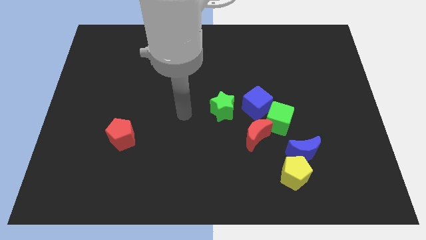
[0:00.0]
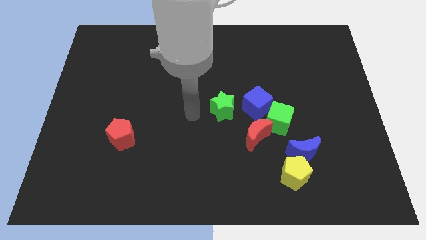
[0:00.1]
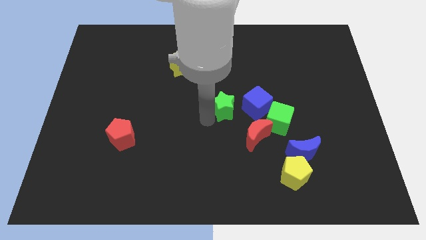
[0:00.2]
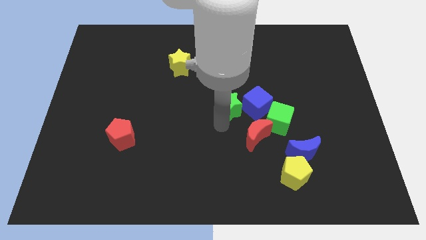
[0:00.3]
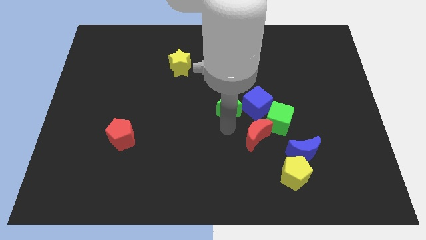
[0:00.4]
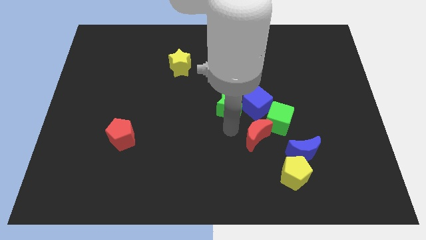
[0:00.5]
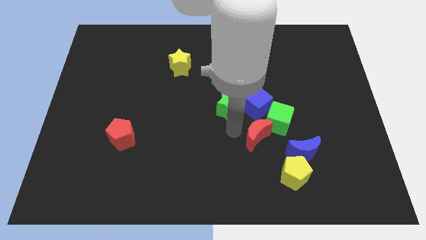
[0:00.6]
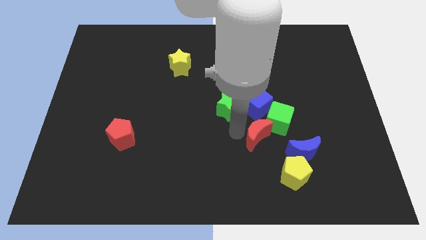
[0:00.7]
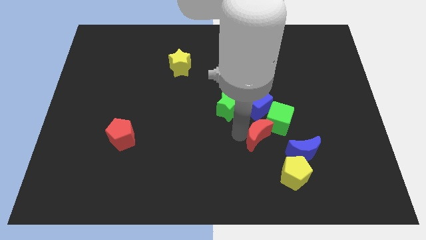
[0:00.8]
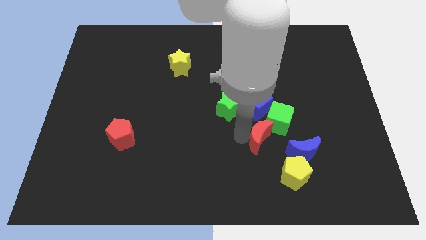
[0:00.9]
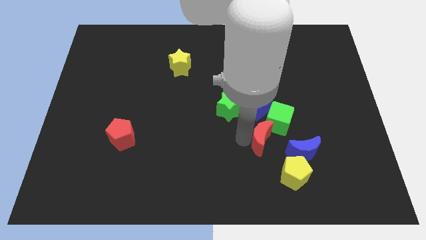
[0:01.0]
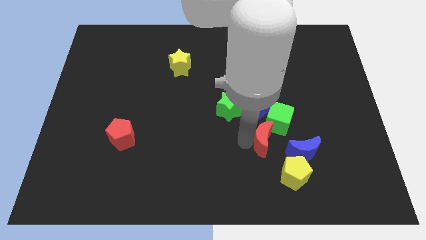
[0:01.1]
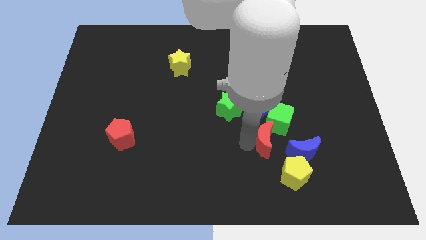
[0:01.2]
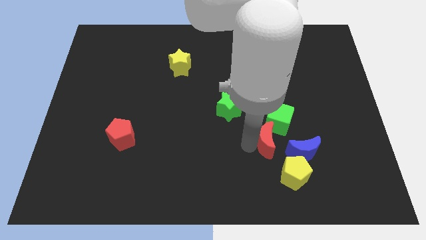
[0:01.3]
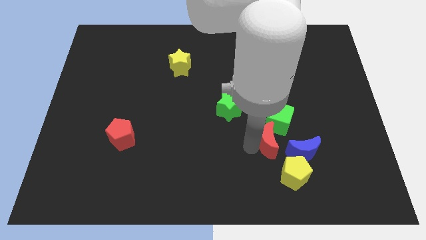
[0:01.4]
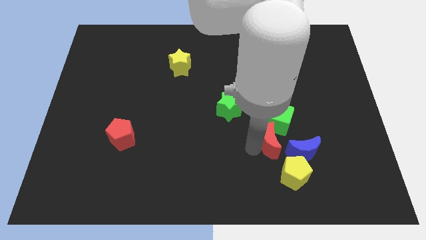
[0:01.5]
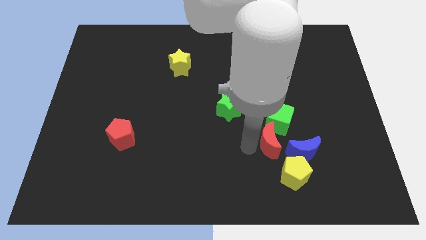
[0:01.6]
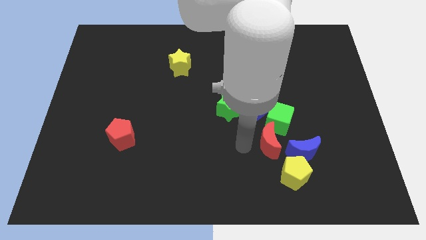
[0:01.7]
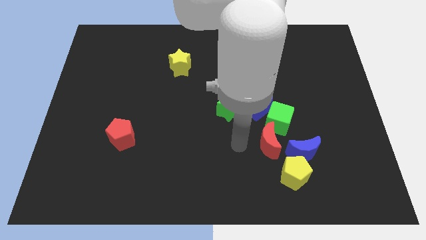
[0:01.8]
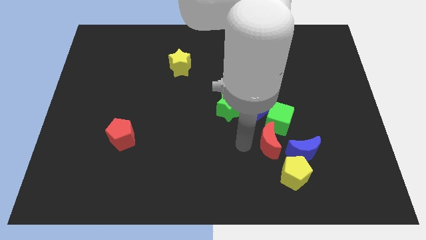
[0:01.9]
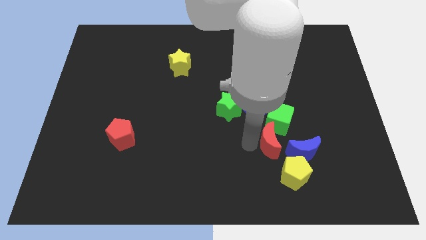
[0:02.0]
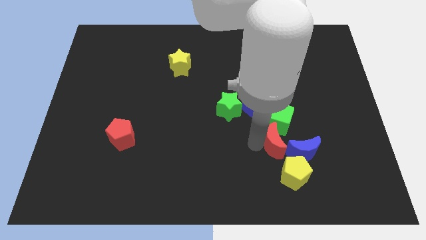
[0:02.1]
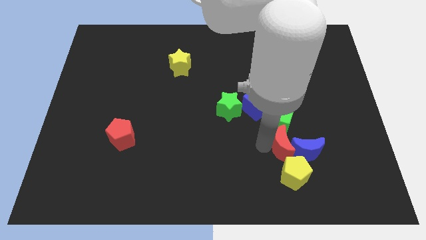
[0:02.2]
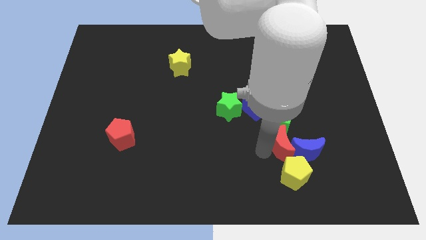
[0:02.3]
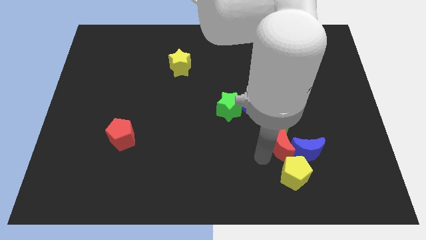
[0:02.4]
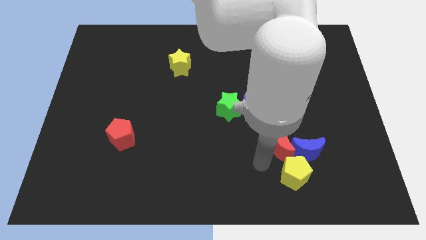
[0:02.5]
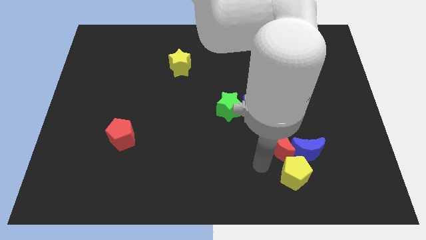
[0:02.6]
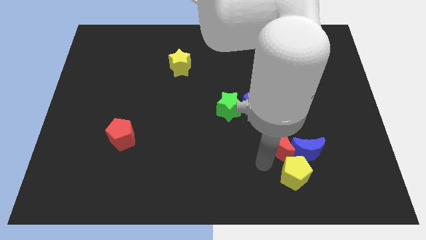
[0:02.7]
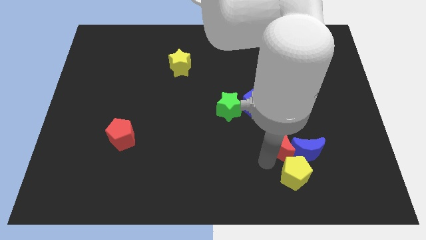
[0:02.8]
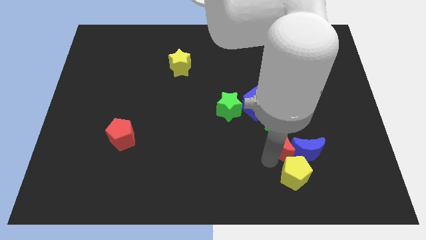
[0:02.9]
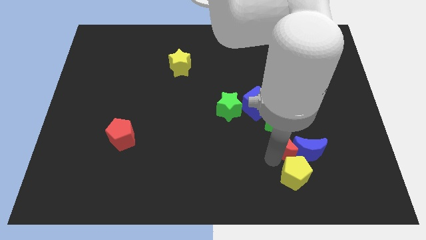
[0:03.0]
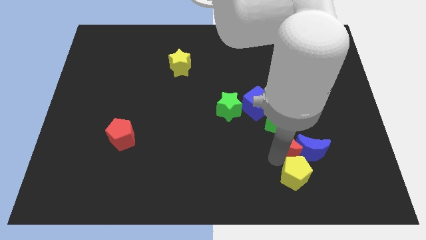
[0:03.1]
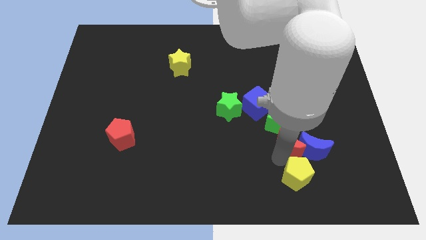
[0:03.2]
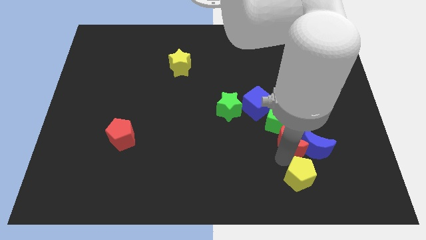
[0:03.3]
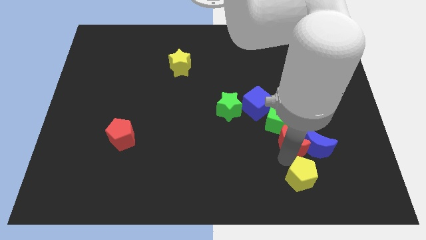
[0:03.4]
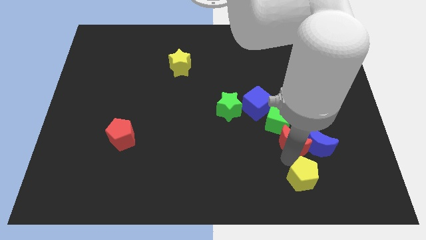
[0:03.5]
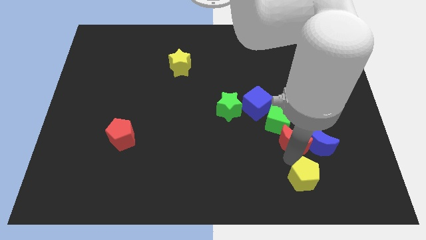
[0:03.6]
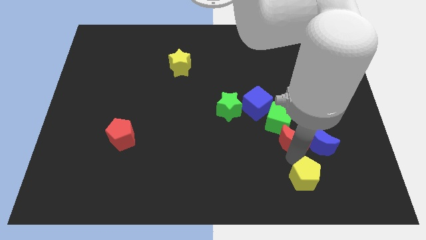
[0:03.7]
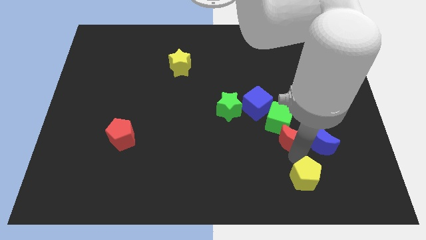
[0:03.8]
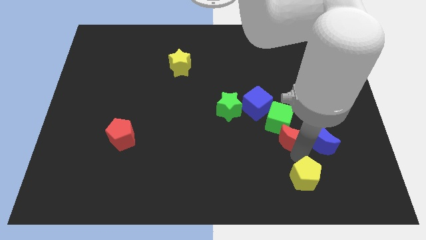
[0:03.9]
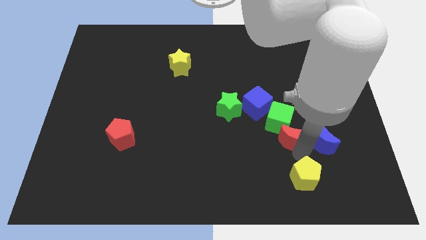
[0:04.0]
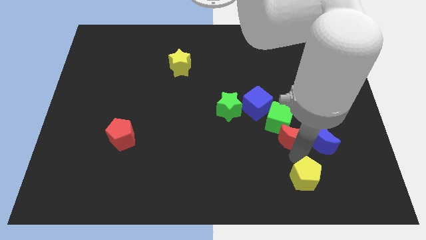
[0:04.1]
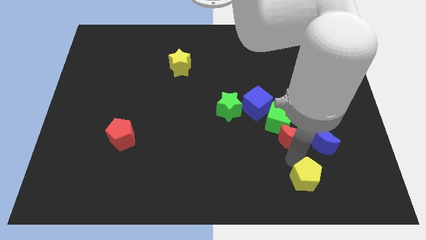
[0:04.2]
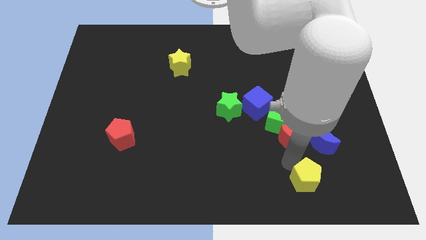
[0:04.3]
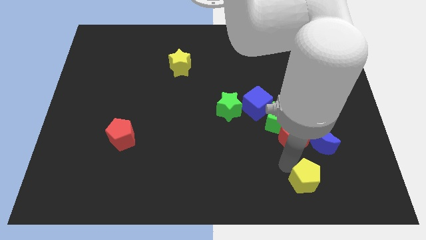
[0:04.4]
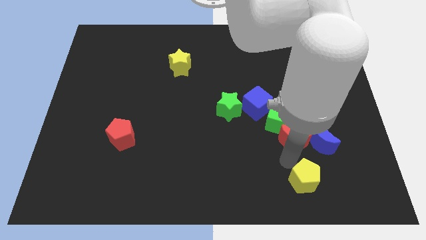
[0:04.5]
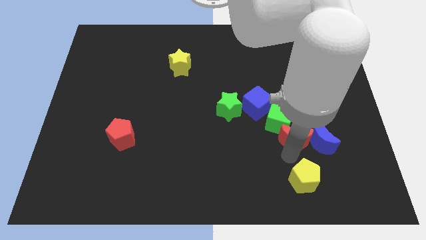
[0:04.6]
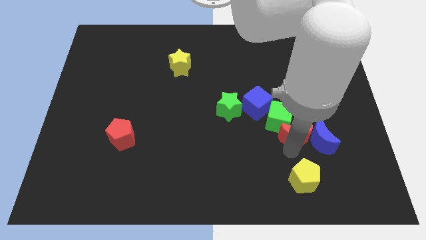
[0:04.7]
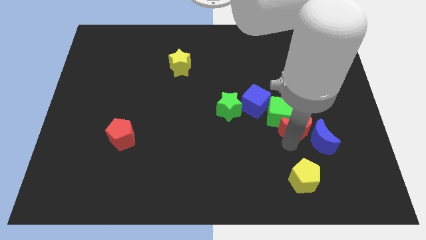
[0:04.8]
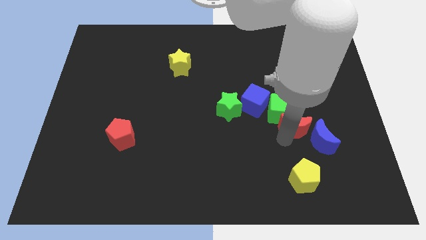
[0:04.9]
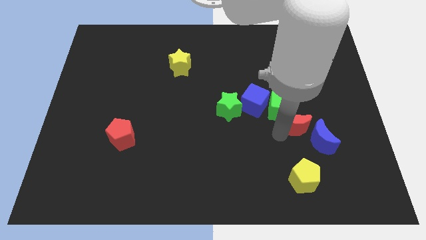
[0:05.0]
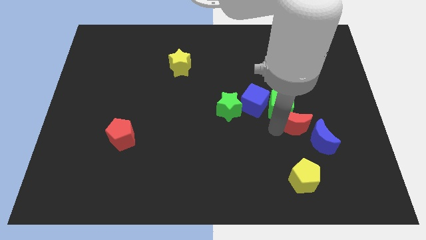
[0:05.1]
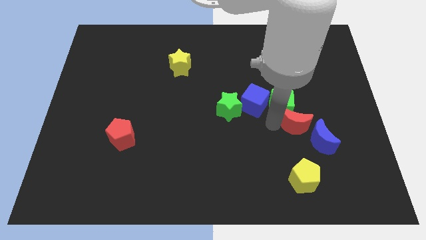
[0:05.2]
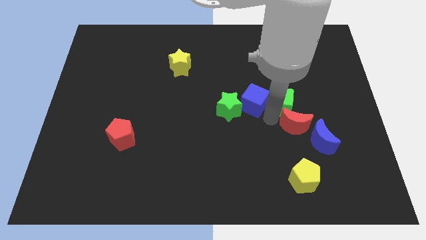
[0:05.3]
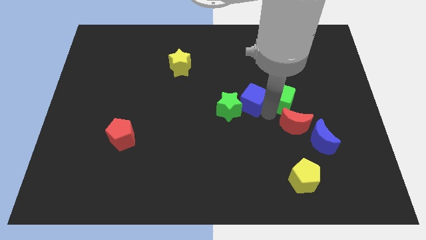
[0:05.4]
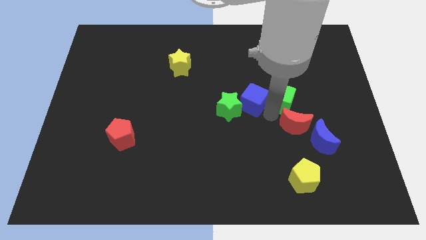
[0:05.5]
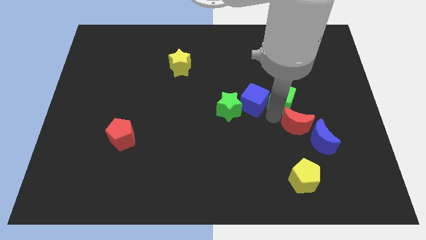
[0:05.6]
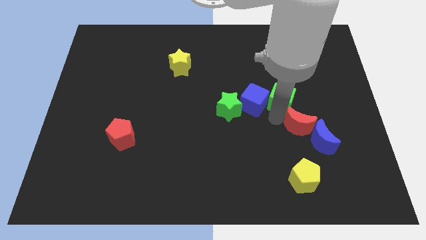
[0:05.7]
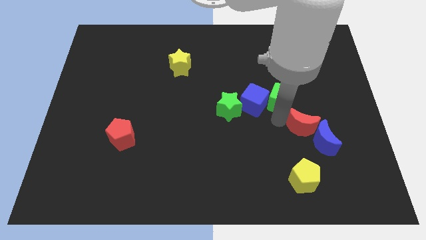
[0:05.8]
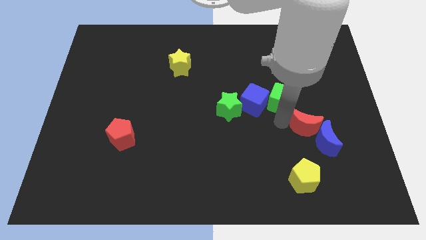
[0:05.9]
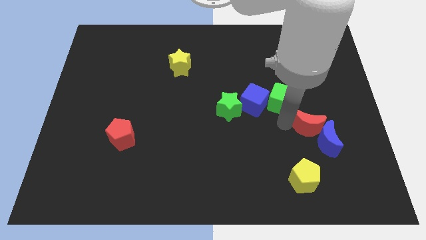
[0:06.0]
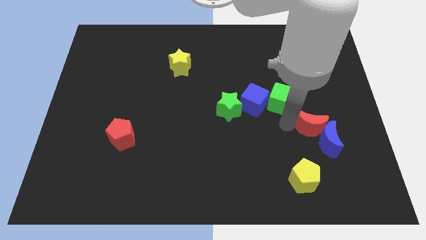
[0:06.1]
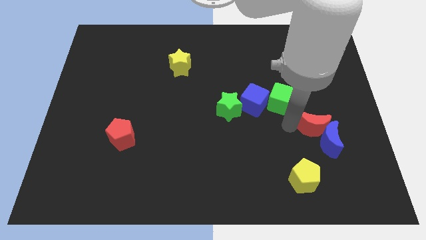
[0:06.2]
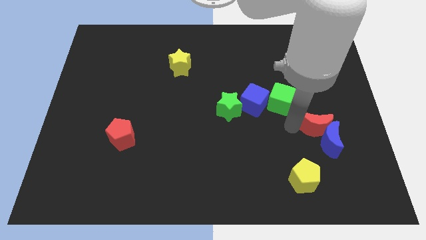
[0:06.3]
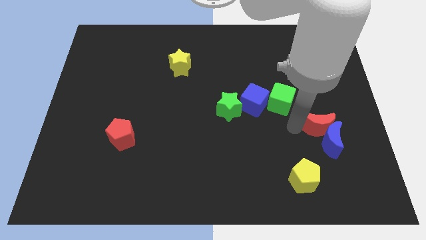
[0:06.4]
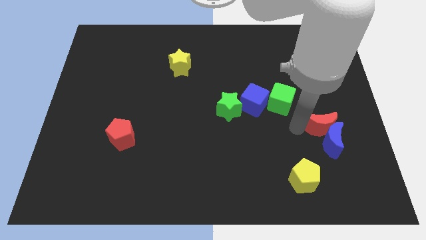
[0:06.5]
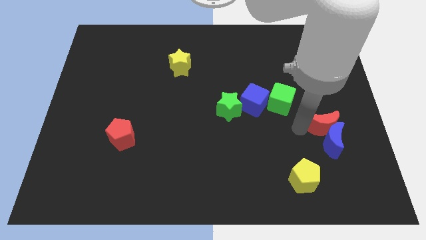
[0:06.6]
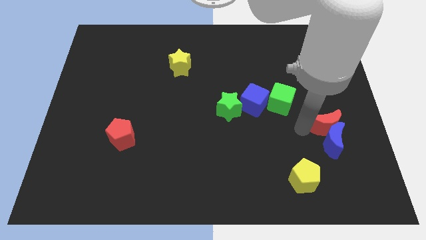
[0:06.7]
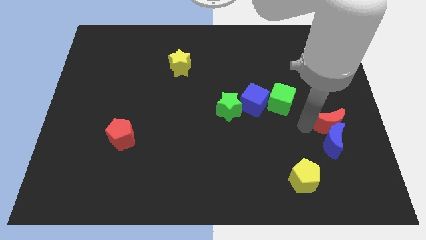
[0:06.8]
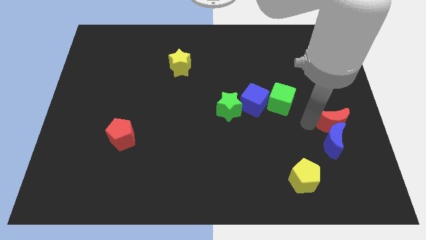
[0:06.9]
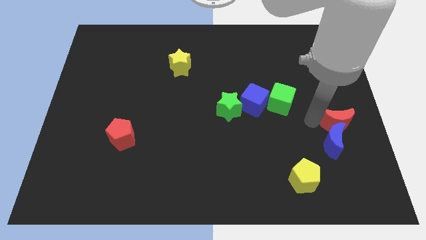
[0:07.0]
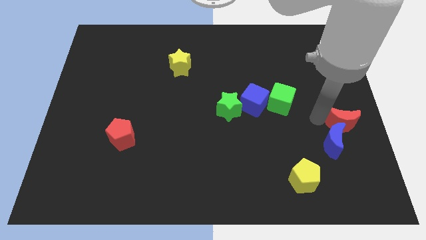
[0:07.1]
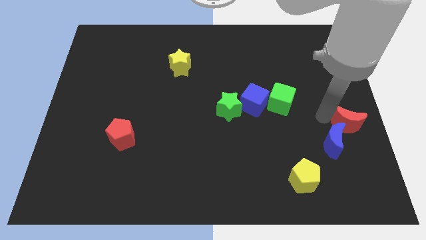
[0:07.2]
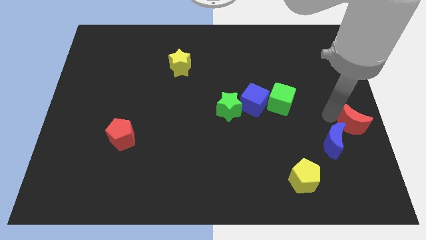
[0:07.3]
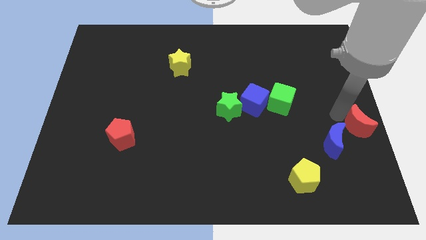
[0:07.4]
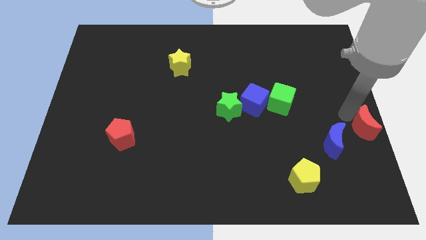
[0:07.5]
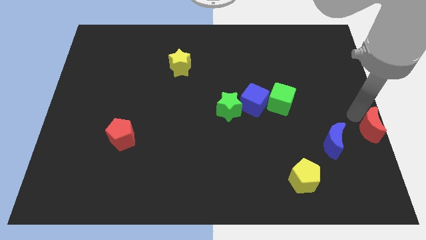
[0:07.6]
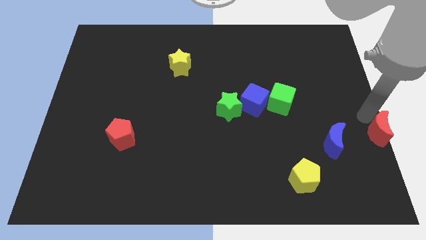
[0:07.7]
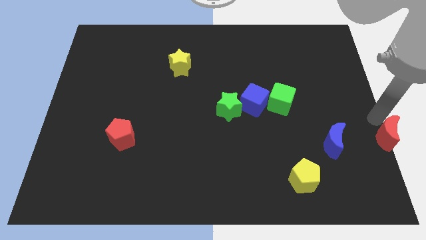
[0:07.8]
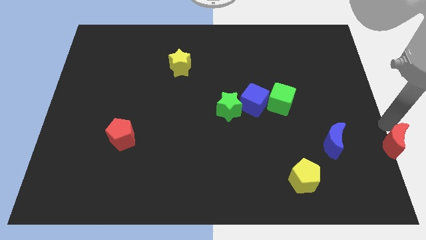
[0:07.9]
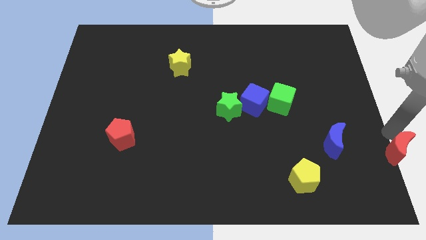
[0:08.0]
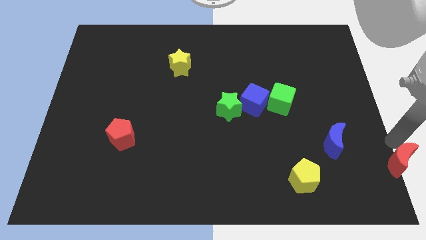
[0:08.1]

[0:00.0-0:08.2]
put the red moon to the bottom right
